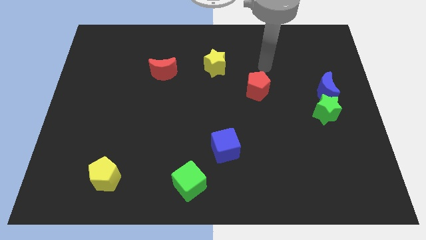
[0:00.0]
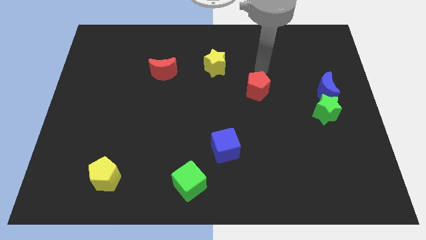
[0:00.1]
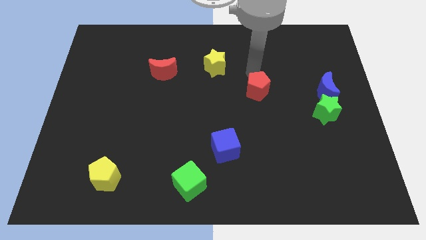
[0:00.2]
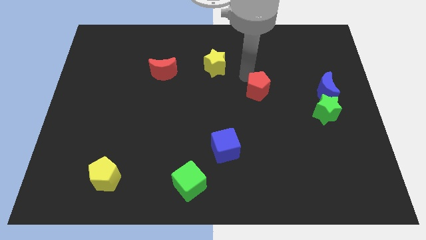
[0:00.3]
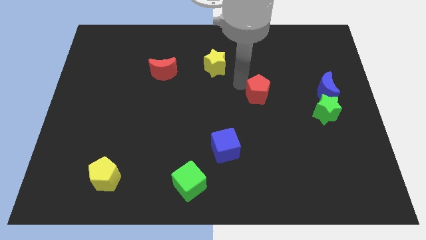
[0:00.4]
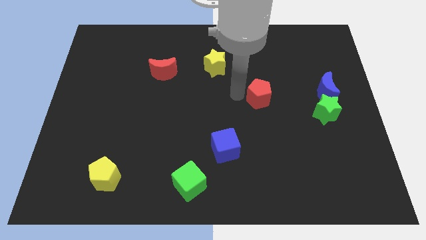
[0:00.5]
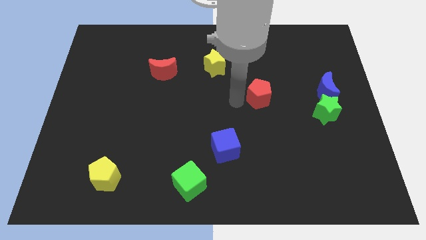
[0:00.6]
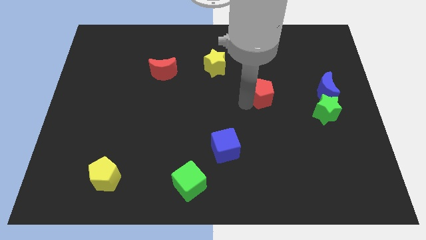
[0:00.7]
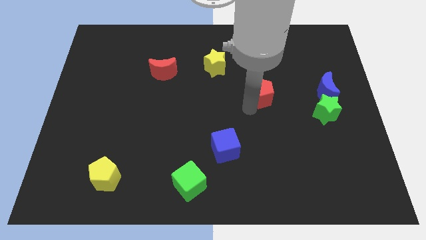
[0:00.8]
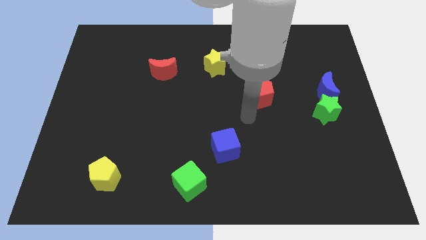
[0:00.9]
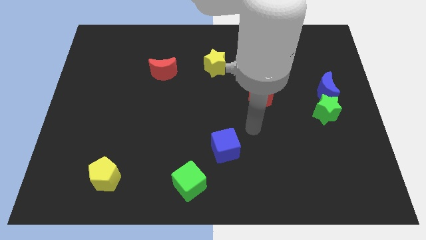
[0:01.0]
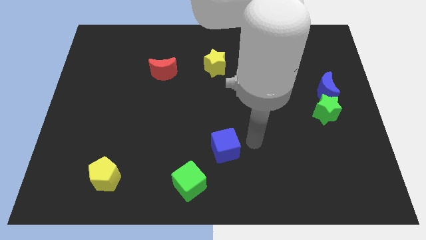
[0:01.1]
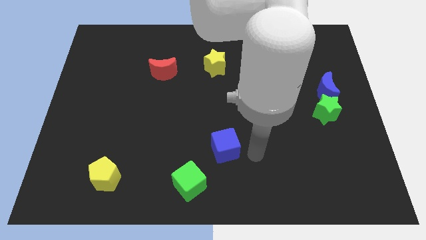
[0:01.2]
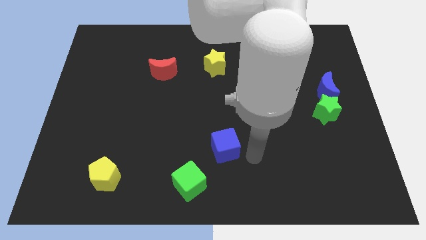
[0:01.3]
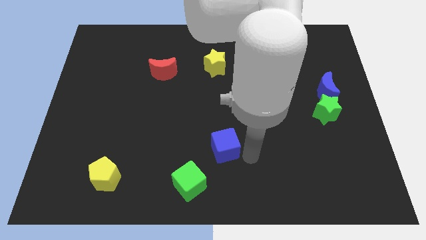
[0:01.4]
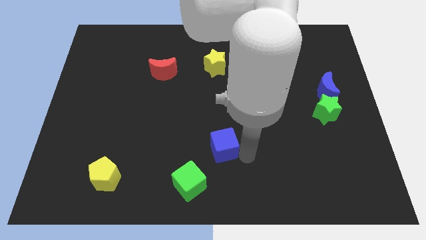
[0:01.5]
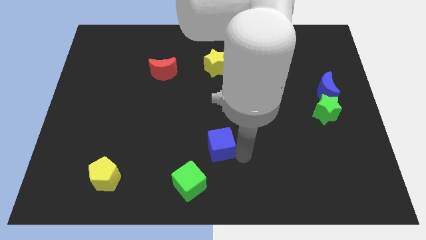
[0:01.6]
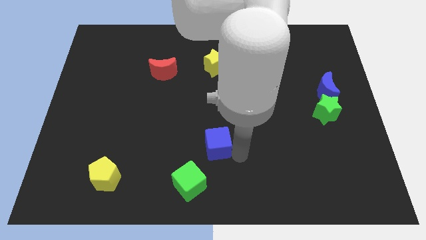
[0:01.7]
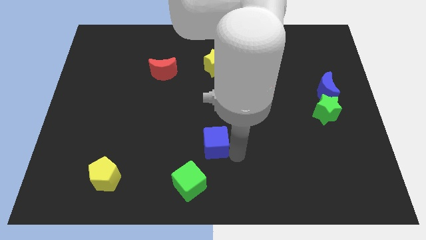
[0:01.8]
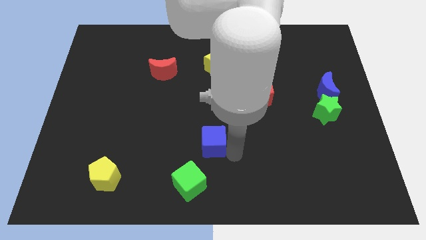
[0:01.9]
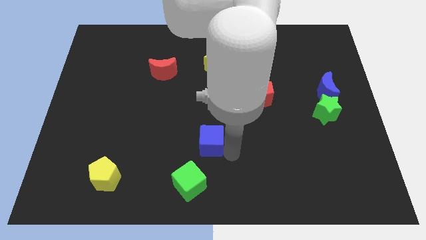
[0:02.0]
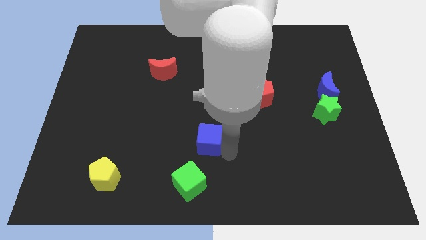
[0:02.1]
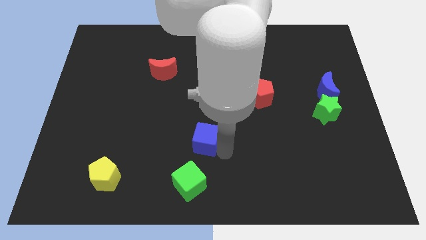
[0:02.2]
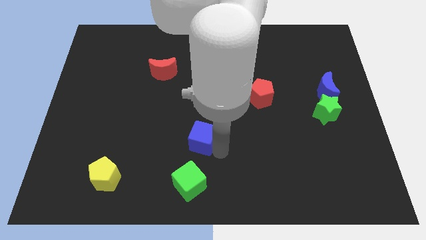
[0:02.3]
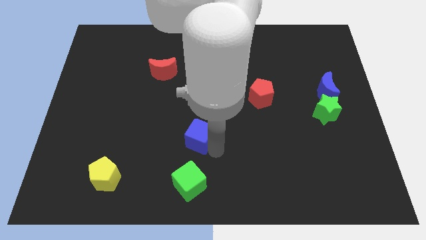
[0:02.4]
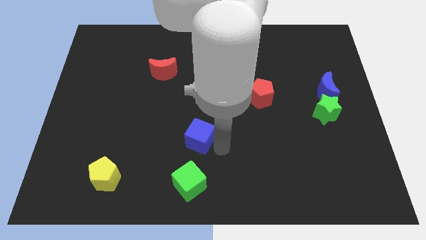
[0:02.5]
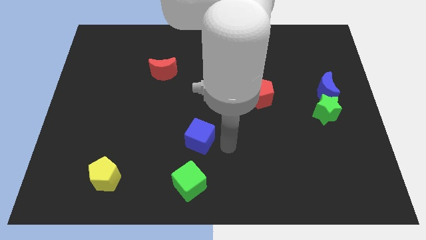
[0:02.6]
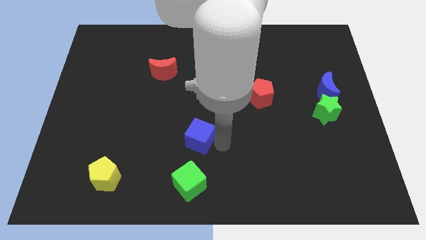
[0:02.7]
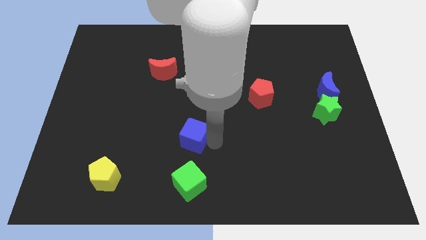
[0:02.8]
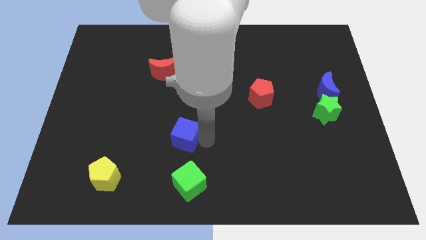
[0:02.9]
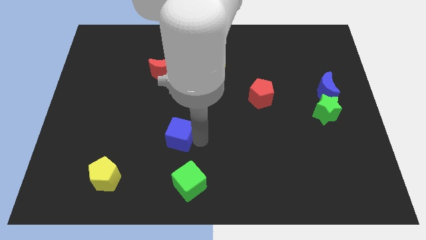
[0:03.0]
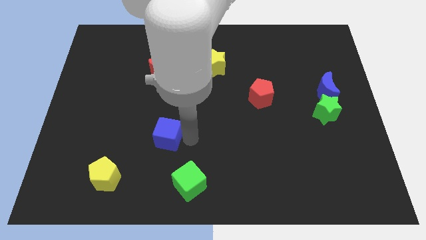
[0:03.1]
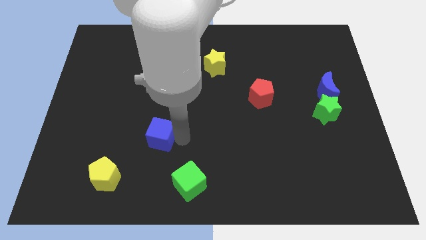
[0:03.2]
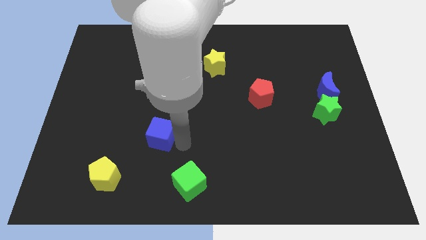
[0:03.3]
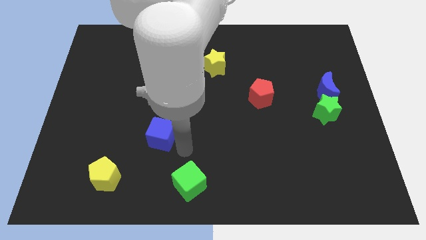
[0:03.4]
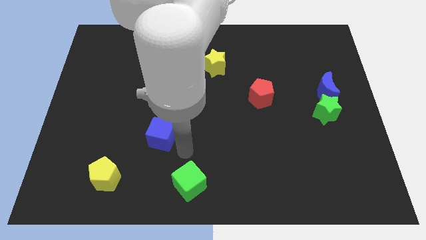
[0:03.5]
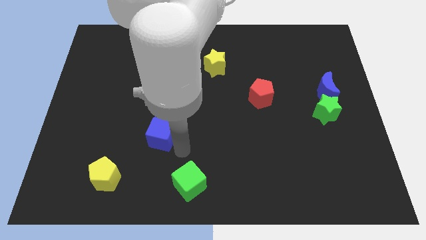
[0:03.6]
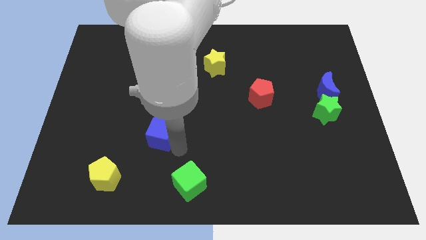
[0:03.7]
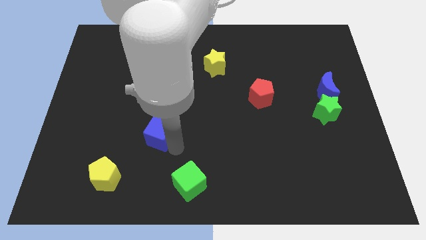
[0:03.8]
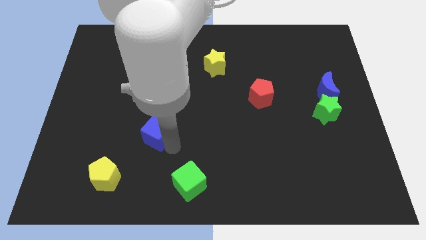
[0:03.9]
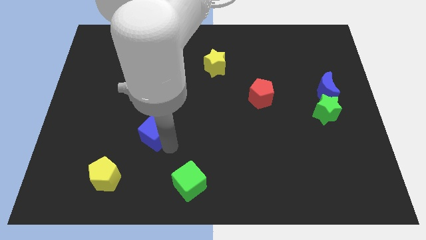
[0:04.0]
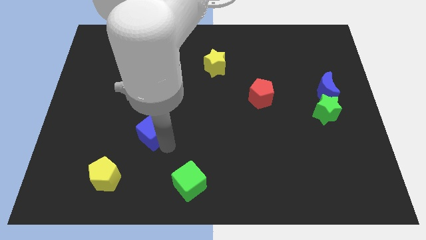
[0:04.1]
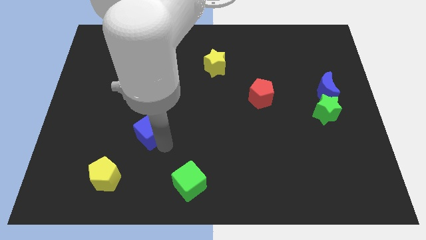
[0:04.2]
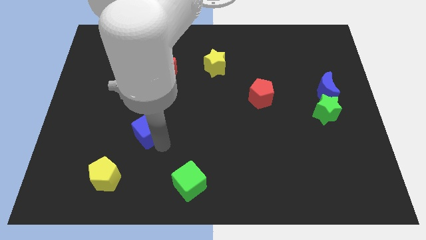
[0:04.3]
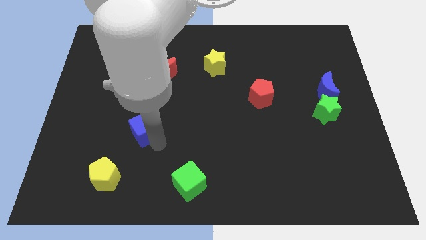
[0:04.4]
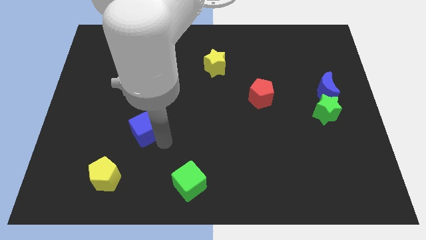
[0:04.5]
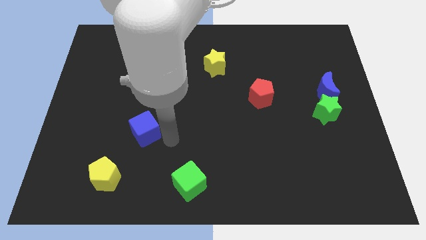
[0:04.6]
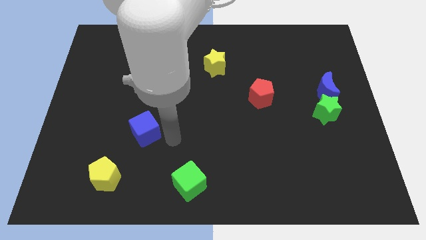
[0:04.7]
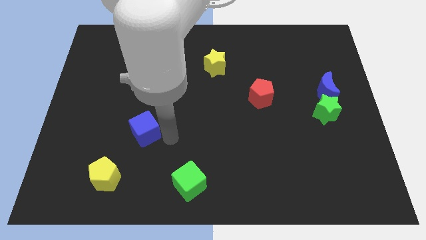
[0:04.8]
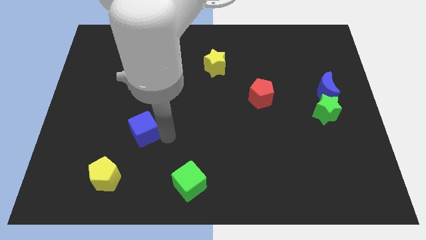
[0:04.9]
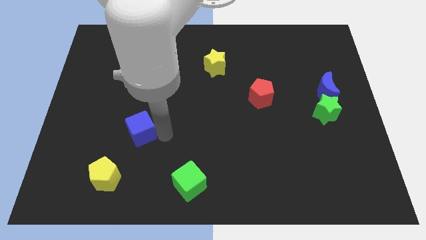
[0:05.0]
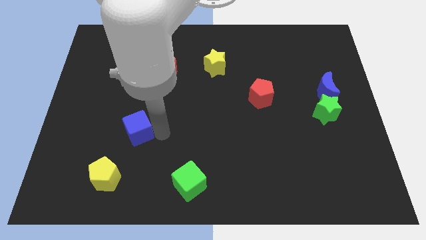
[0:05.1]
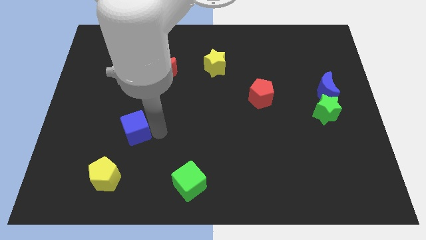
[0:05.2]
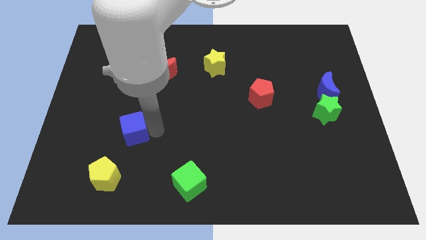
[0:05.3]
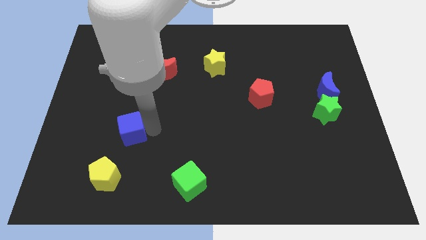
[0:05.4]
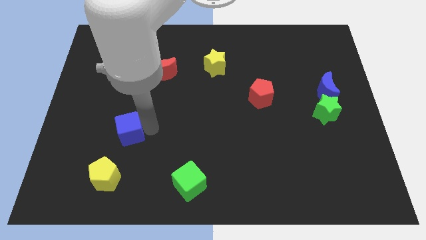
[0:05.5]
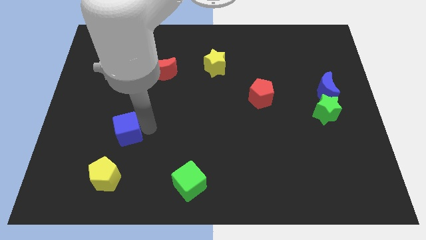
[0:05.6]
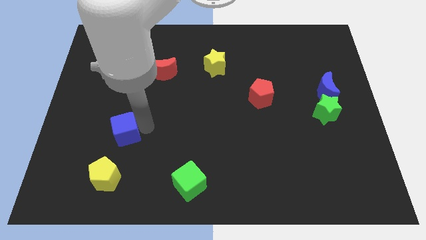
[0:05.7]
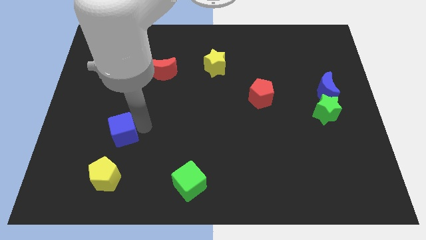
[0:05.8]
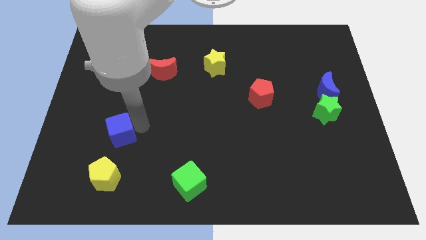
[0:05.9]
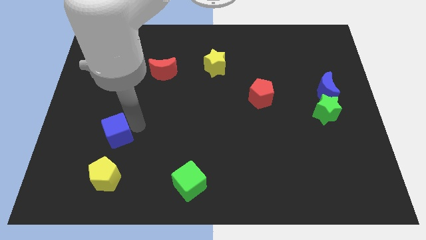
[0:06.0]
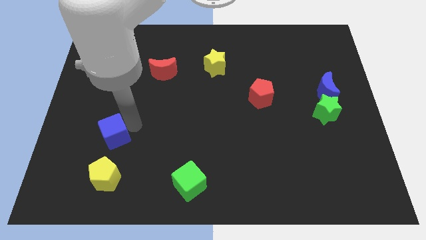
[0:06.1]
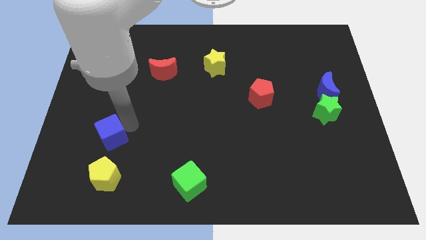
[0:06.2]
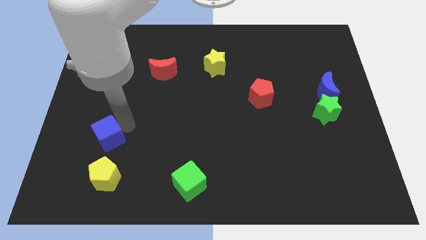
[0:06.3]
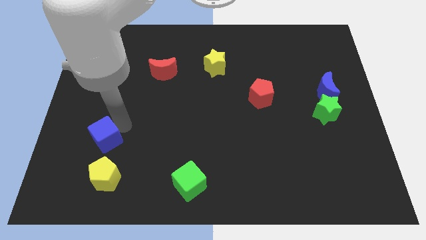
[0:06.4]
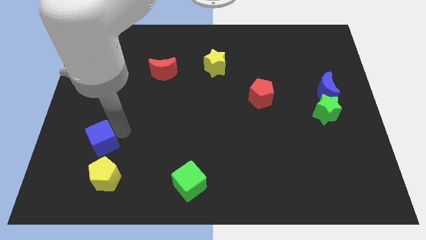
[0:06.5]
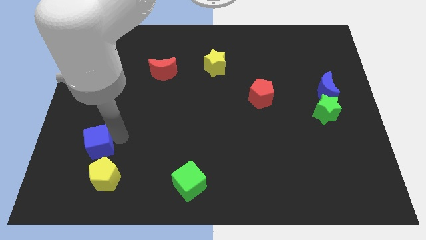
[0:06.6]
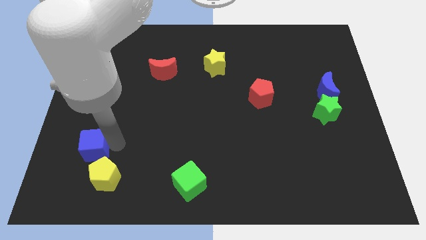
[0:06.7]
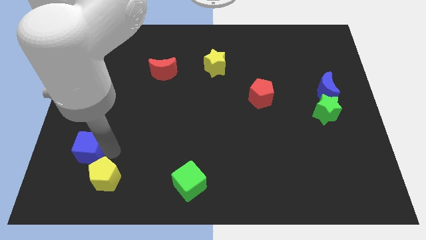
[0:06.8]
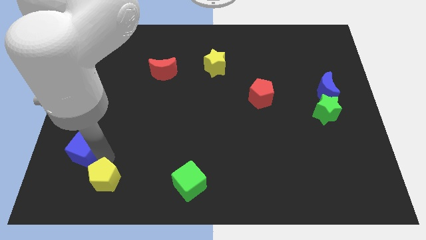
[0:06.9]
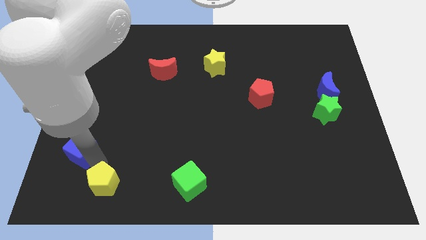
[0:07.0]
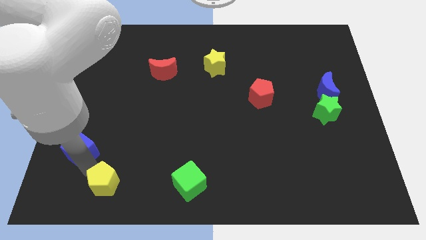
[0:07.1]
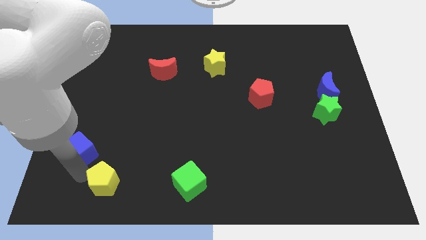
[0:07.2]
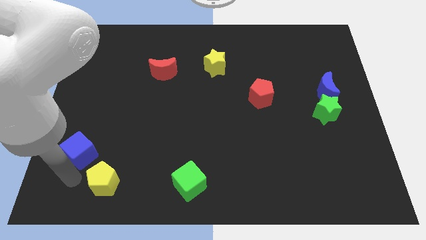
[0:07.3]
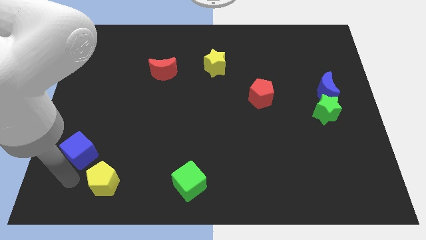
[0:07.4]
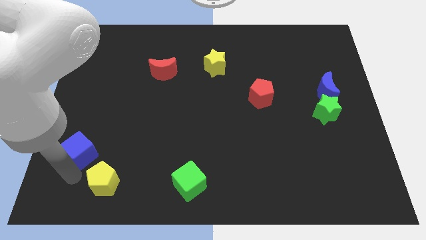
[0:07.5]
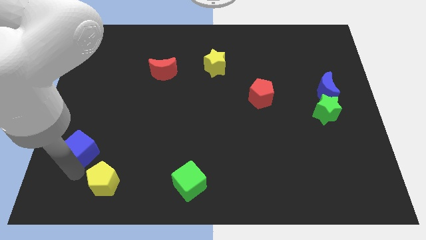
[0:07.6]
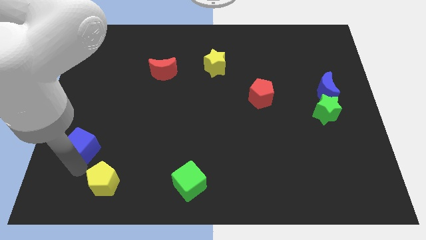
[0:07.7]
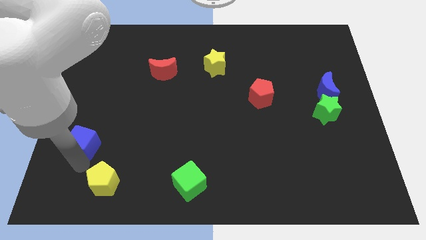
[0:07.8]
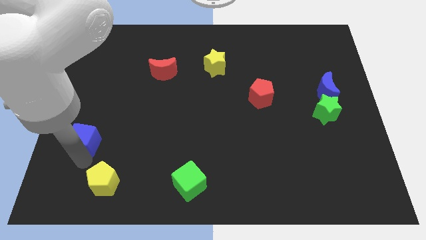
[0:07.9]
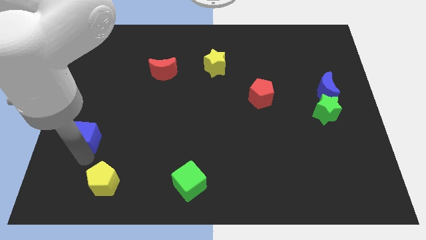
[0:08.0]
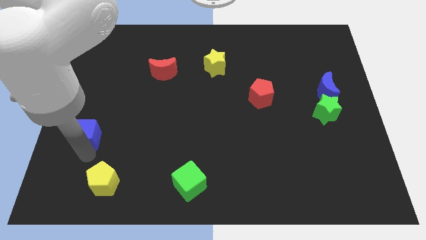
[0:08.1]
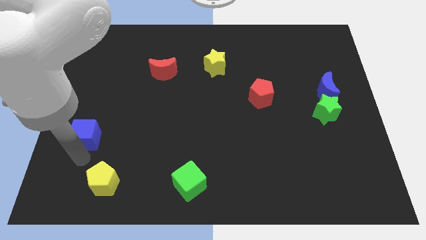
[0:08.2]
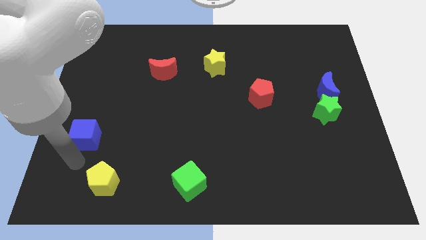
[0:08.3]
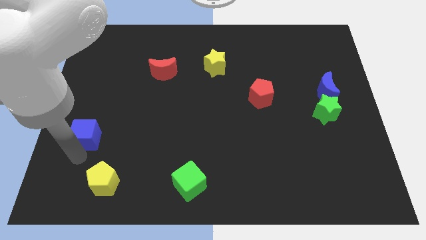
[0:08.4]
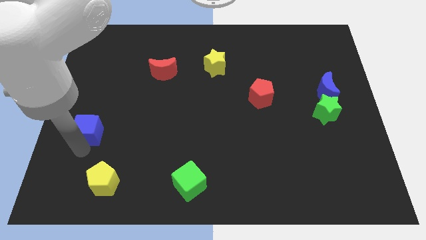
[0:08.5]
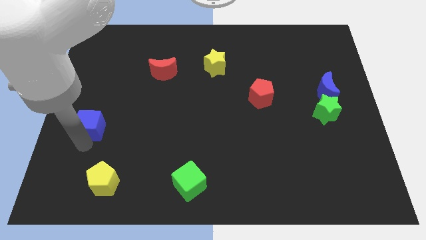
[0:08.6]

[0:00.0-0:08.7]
push the blue cube to the left side
